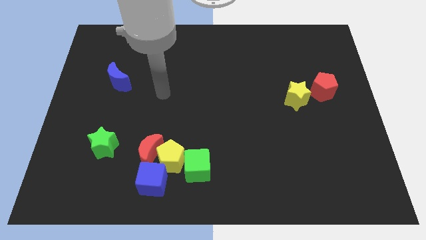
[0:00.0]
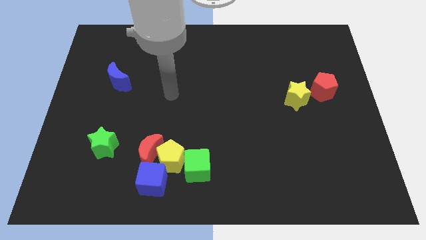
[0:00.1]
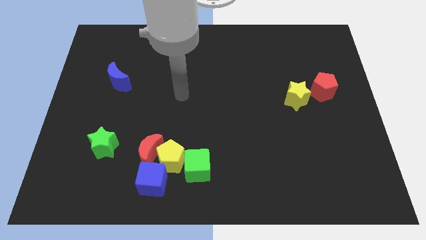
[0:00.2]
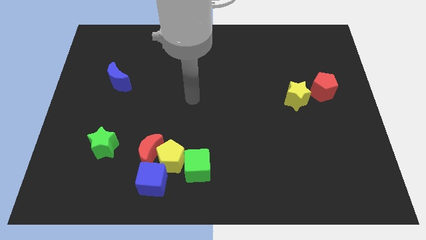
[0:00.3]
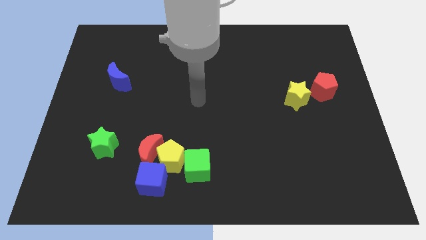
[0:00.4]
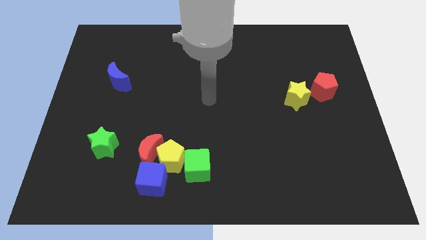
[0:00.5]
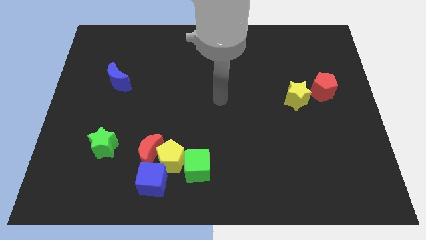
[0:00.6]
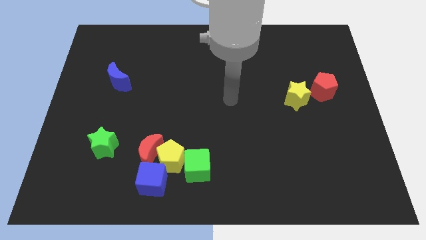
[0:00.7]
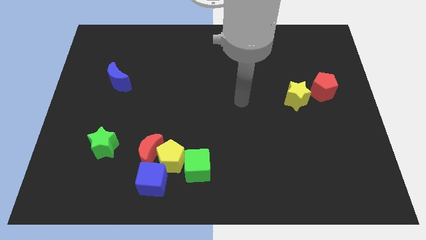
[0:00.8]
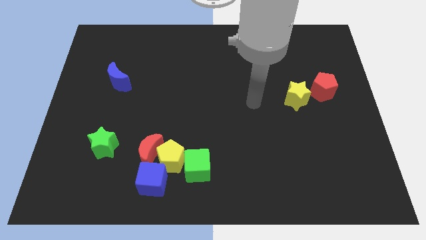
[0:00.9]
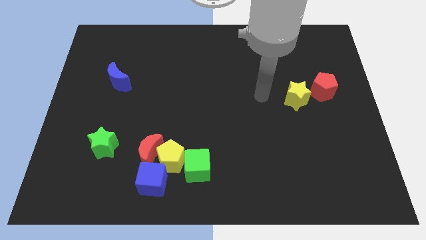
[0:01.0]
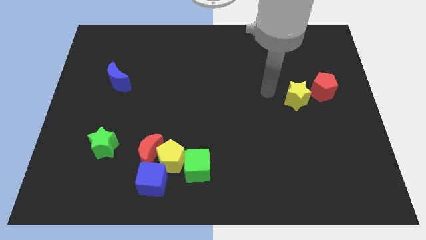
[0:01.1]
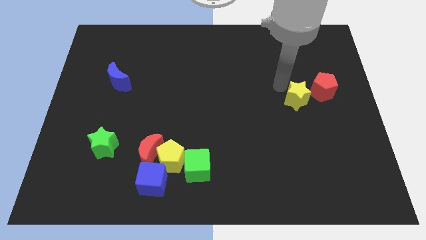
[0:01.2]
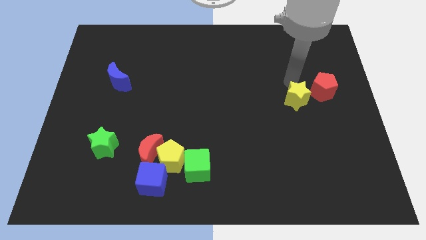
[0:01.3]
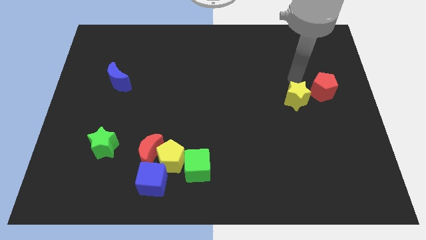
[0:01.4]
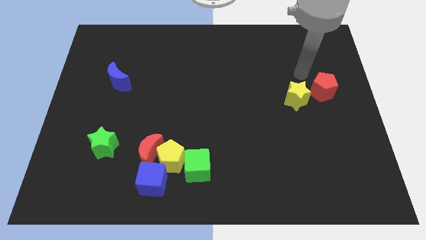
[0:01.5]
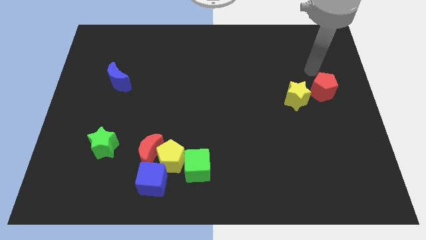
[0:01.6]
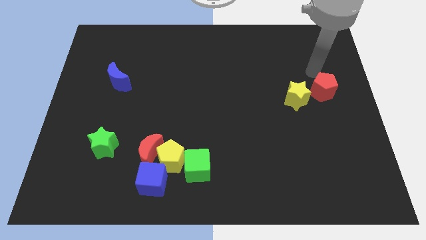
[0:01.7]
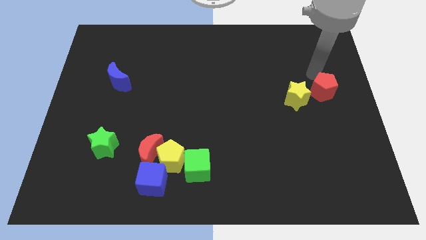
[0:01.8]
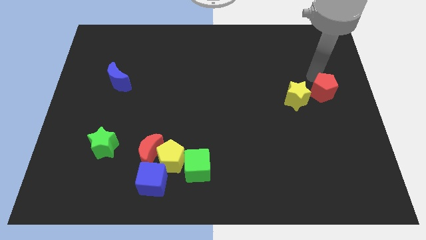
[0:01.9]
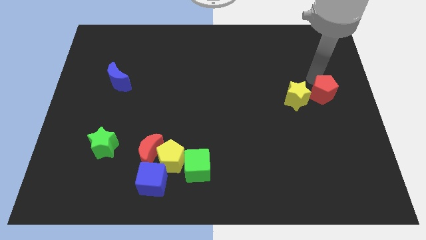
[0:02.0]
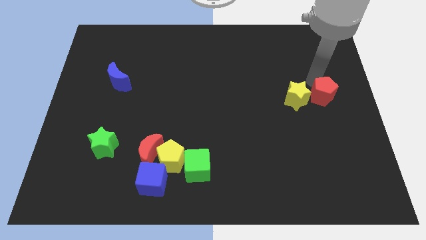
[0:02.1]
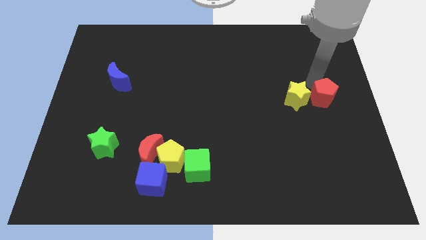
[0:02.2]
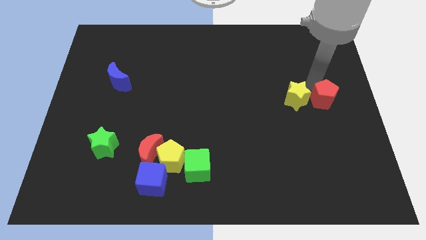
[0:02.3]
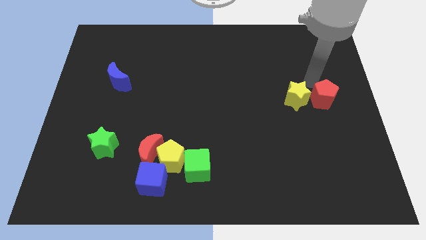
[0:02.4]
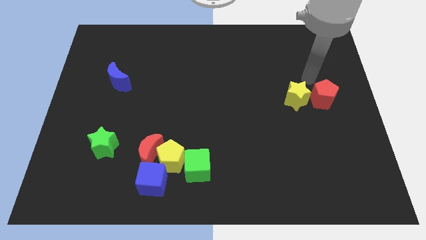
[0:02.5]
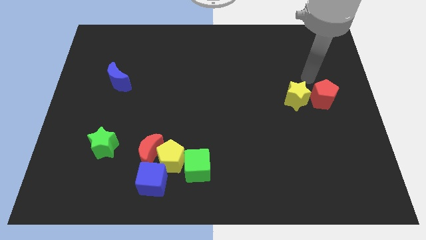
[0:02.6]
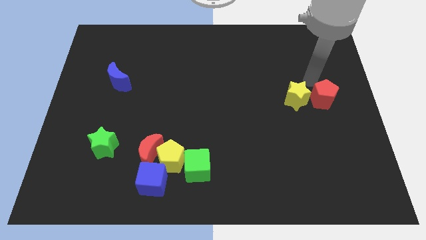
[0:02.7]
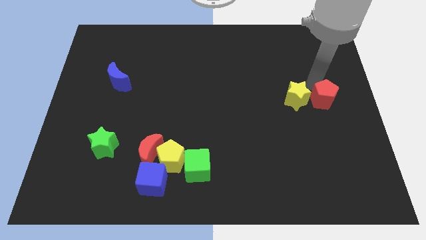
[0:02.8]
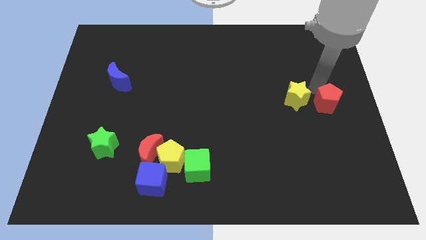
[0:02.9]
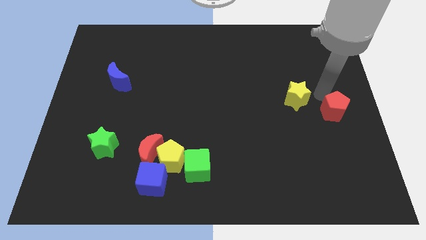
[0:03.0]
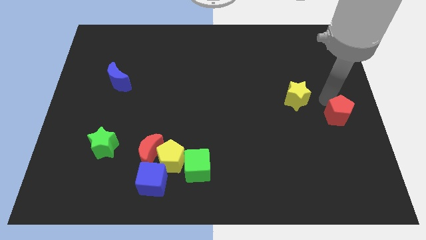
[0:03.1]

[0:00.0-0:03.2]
slightly move the red pentagon downwards

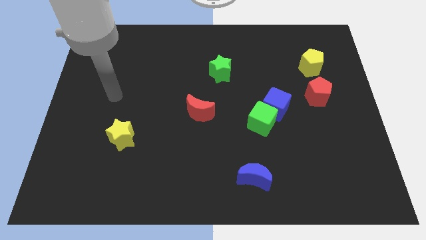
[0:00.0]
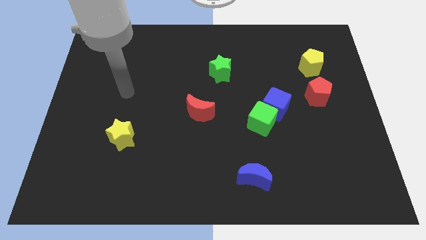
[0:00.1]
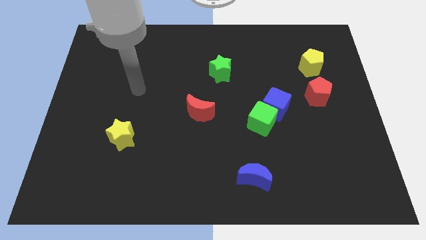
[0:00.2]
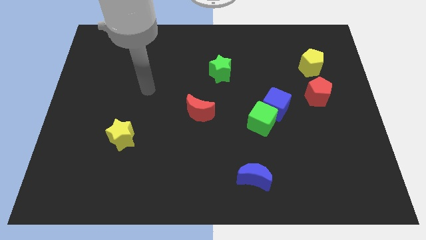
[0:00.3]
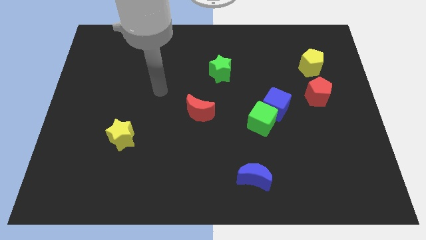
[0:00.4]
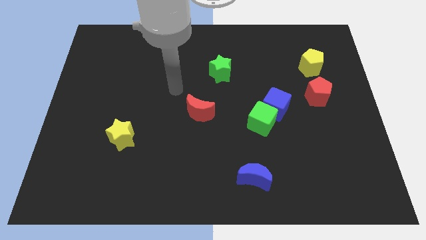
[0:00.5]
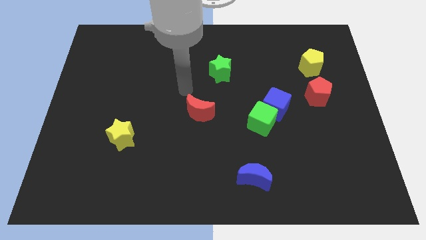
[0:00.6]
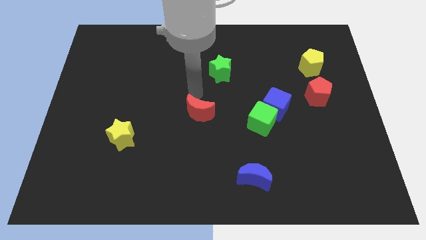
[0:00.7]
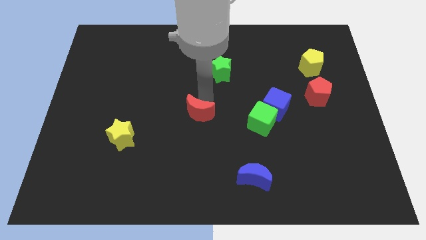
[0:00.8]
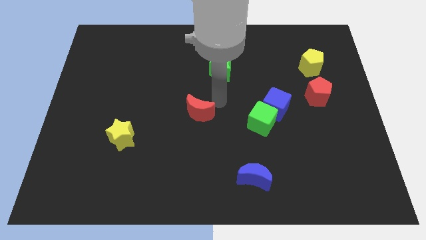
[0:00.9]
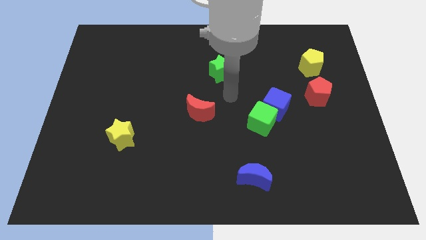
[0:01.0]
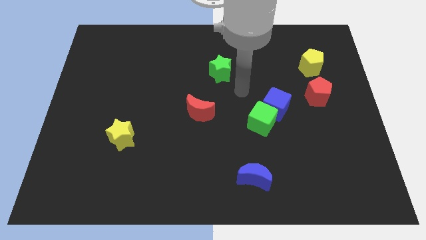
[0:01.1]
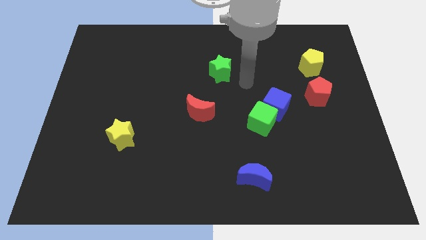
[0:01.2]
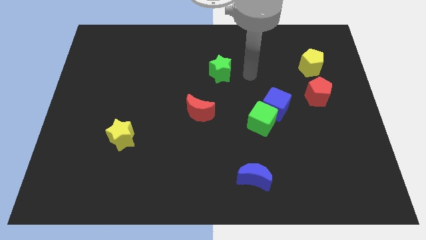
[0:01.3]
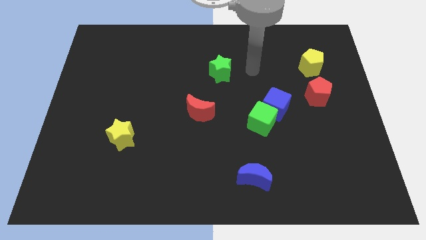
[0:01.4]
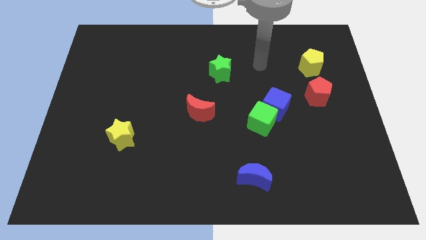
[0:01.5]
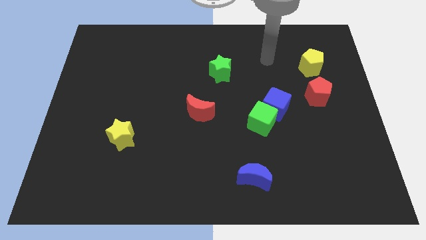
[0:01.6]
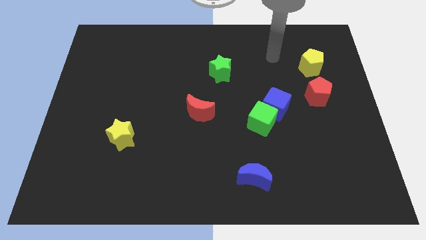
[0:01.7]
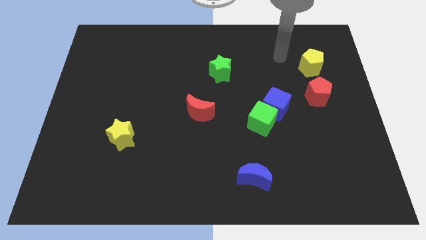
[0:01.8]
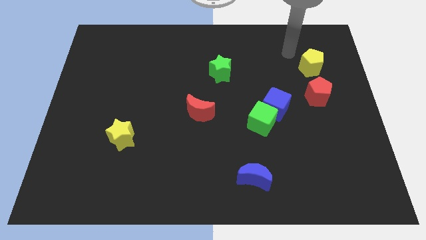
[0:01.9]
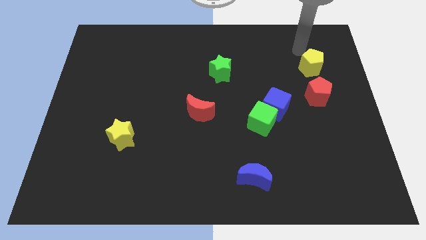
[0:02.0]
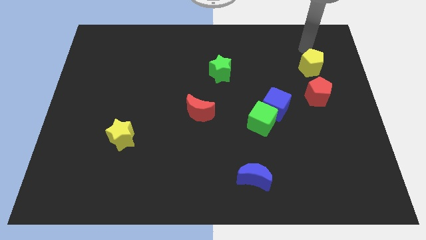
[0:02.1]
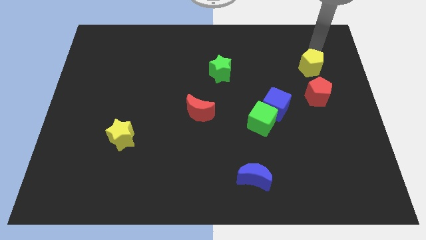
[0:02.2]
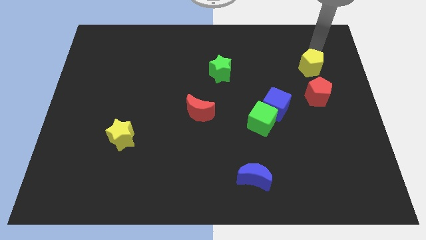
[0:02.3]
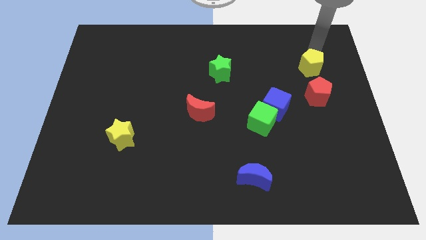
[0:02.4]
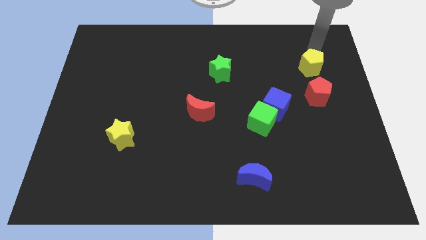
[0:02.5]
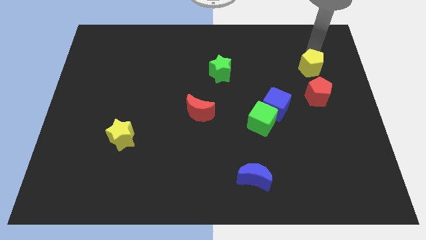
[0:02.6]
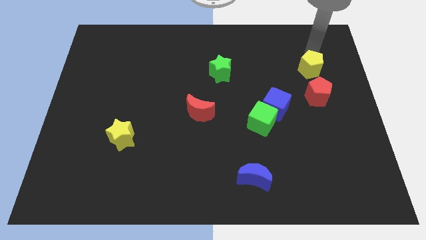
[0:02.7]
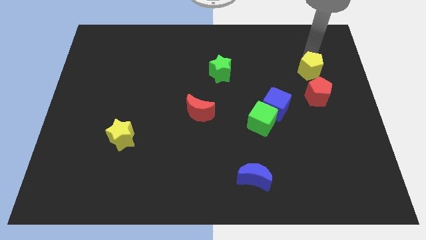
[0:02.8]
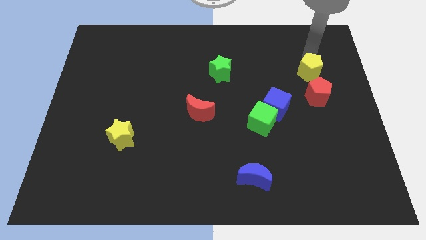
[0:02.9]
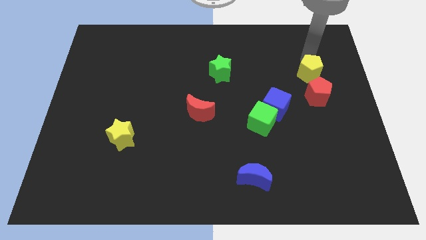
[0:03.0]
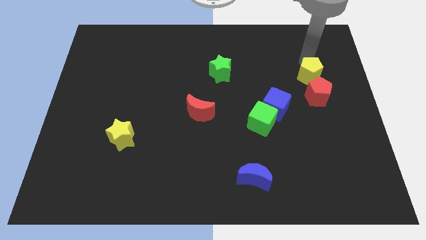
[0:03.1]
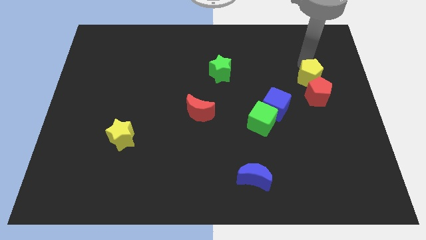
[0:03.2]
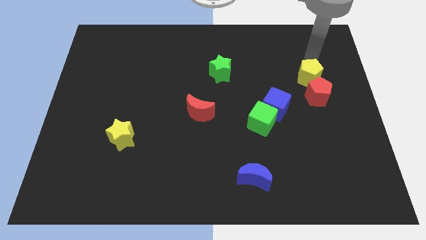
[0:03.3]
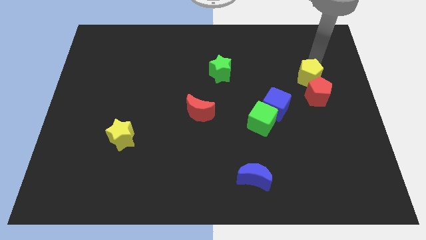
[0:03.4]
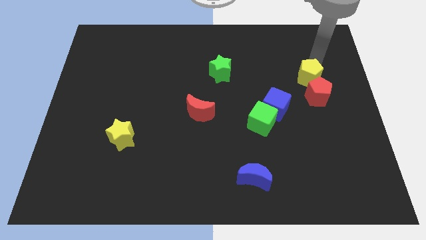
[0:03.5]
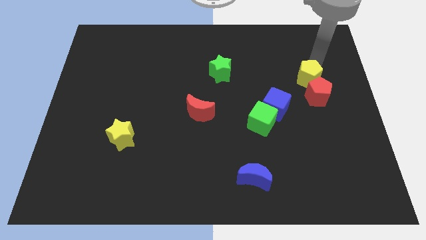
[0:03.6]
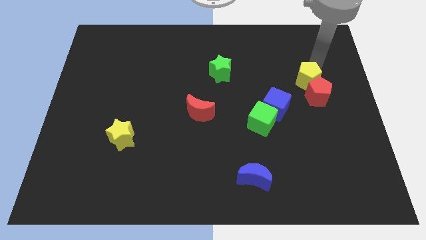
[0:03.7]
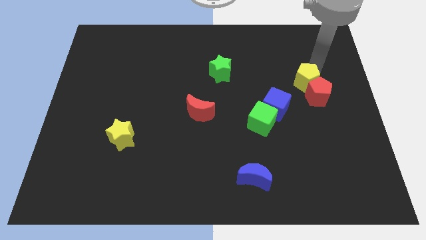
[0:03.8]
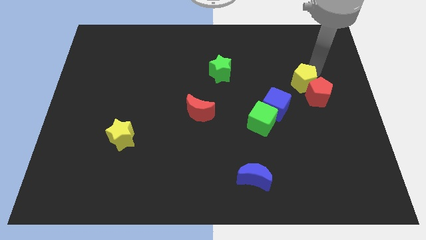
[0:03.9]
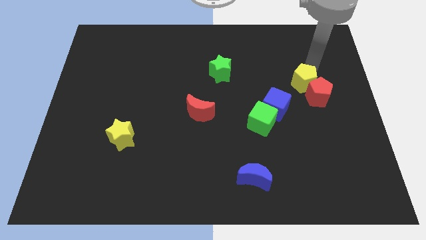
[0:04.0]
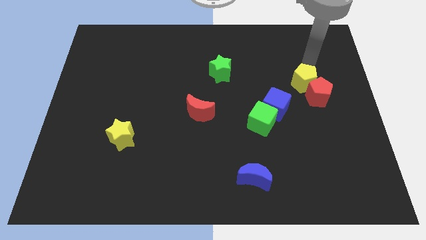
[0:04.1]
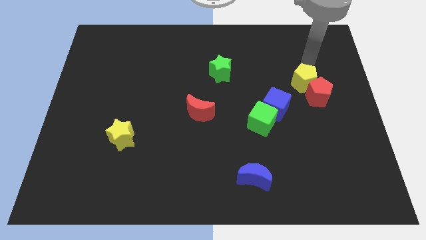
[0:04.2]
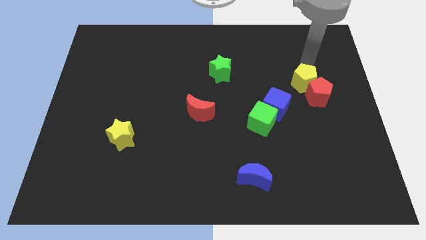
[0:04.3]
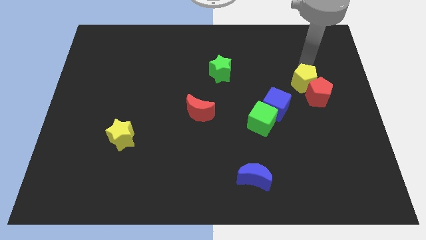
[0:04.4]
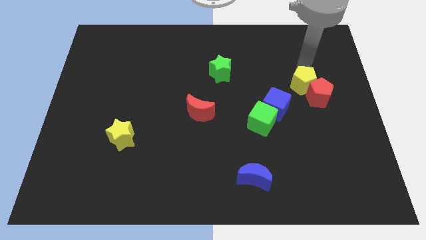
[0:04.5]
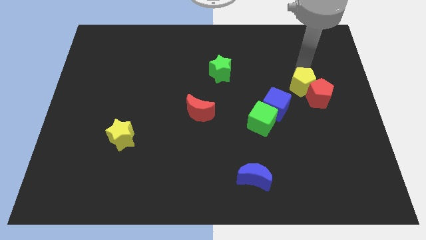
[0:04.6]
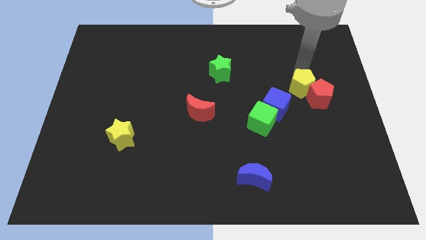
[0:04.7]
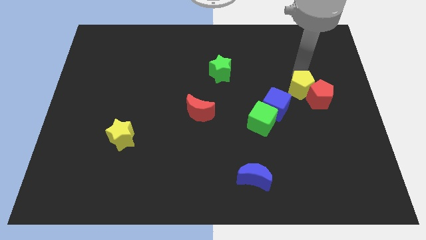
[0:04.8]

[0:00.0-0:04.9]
move the yellow pentagon a little down

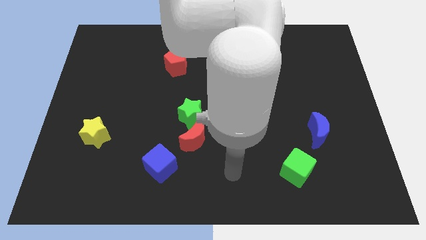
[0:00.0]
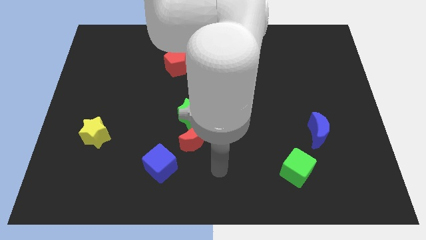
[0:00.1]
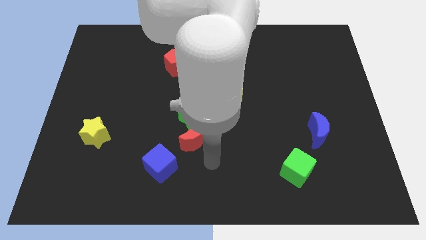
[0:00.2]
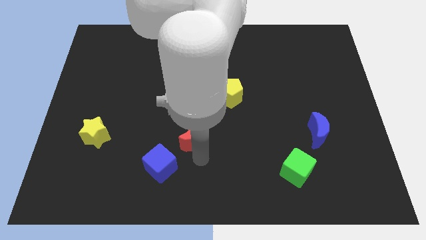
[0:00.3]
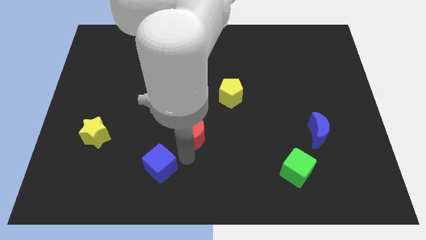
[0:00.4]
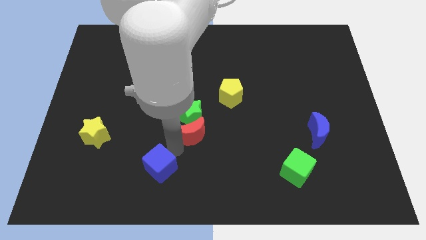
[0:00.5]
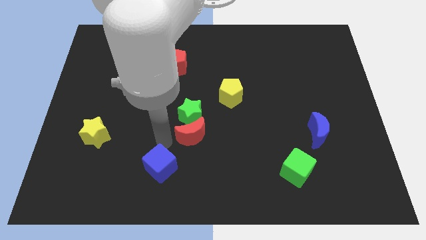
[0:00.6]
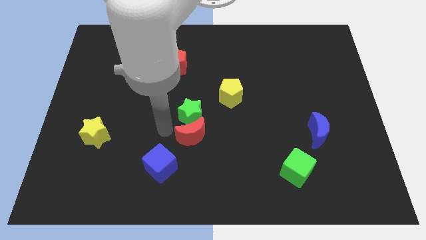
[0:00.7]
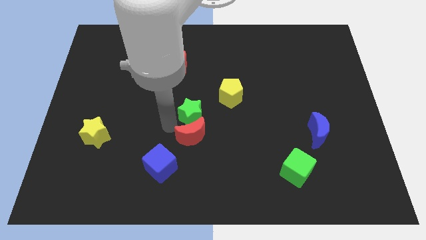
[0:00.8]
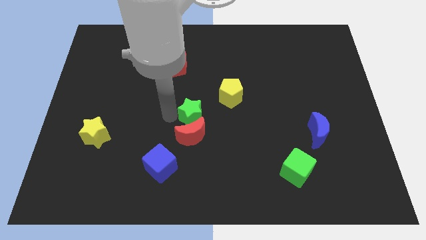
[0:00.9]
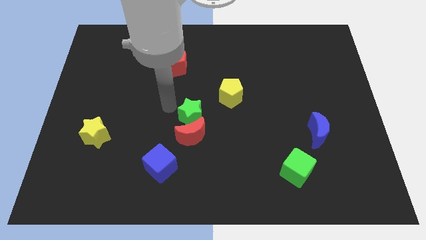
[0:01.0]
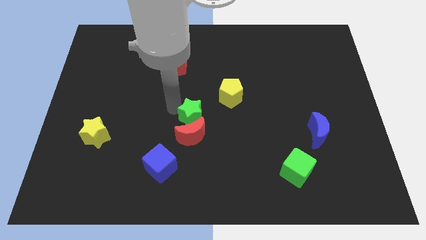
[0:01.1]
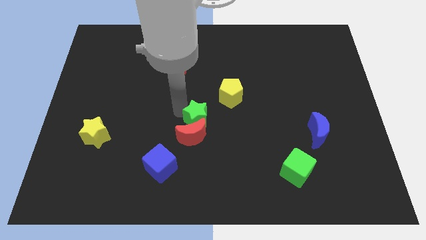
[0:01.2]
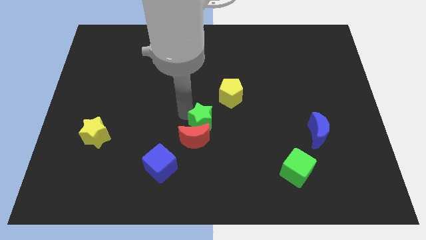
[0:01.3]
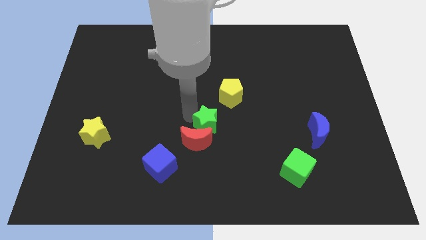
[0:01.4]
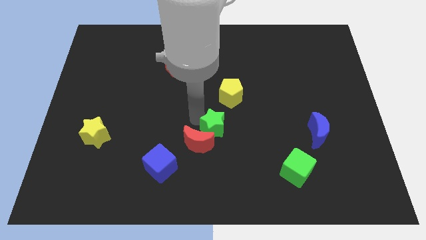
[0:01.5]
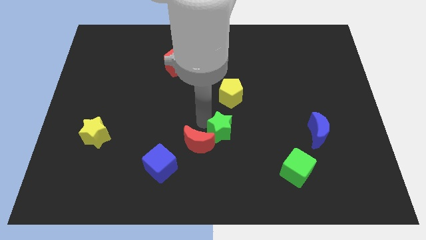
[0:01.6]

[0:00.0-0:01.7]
slightly push the green star diagonally downwards and right
